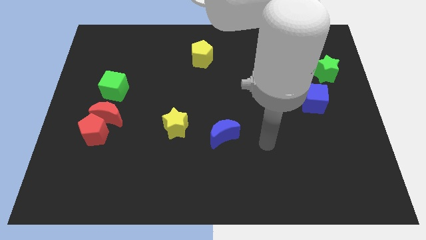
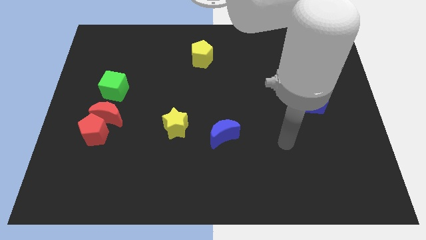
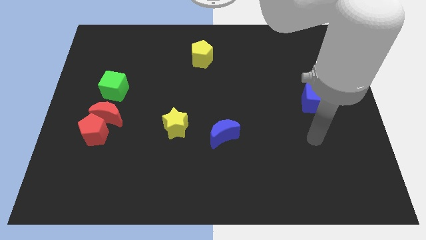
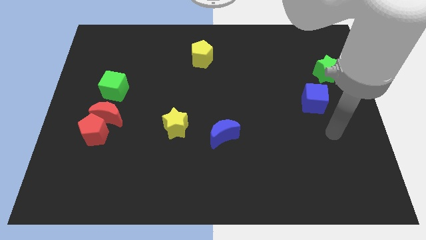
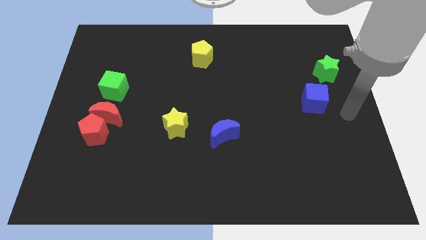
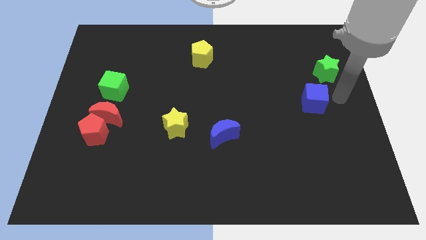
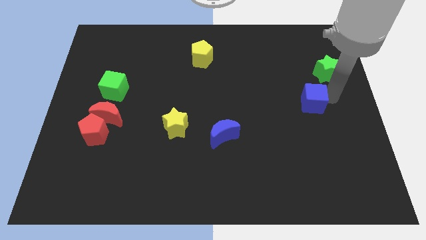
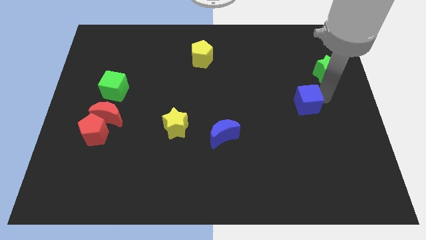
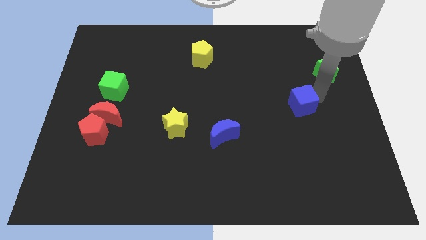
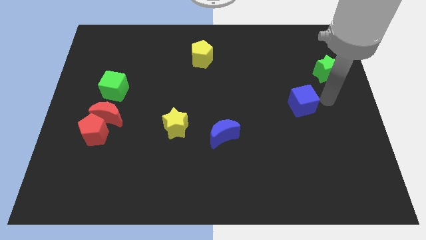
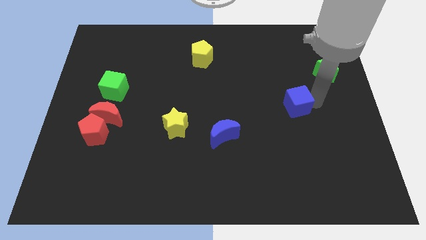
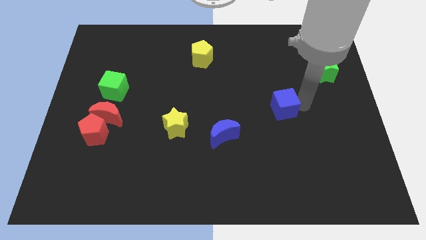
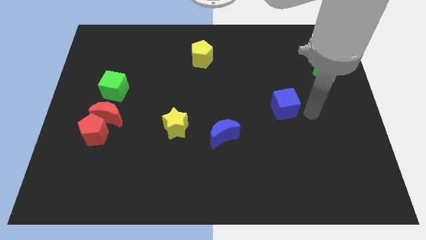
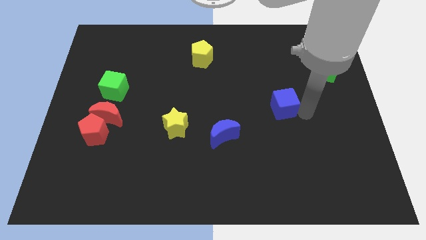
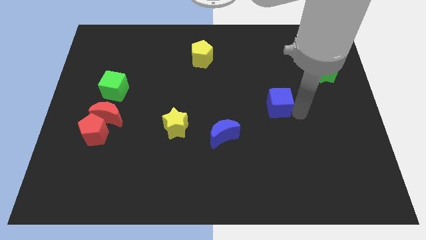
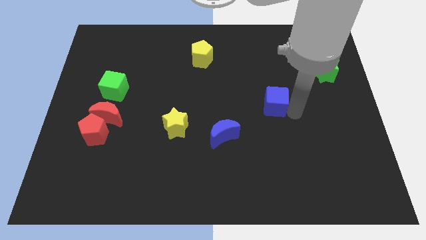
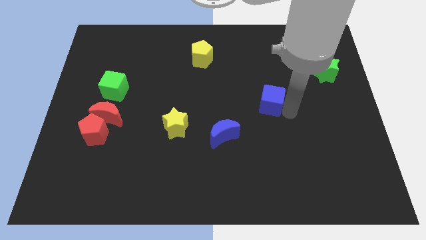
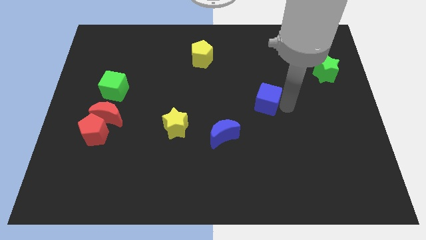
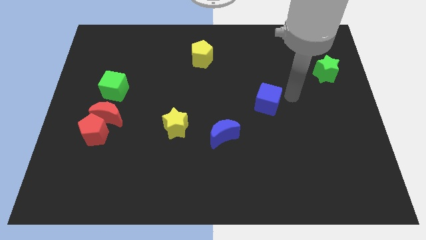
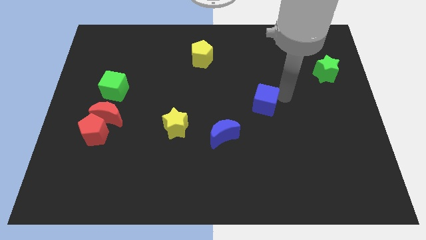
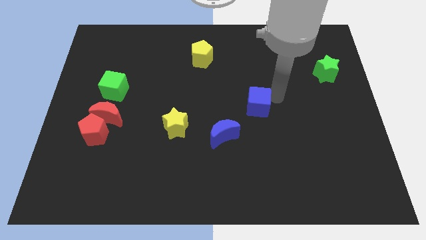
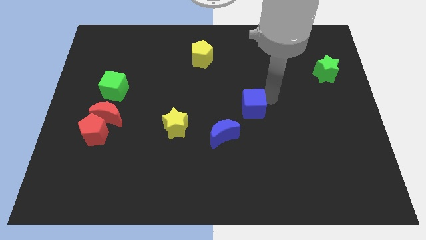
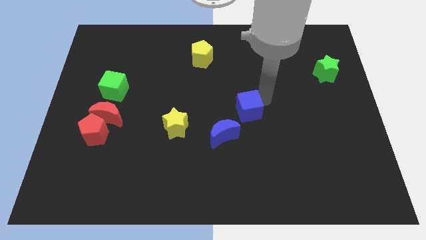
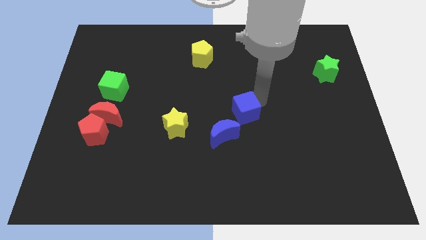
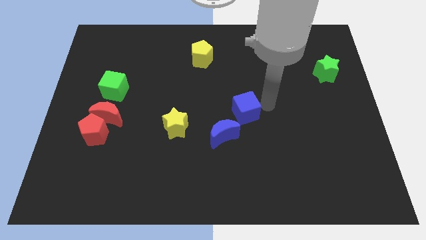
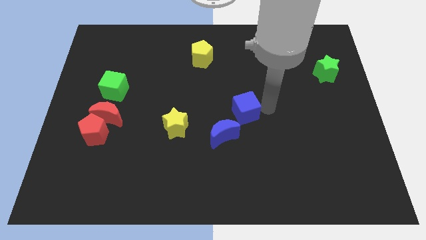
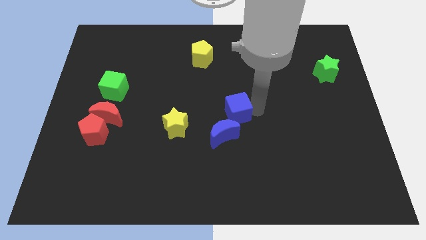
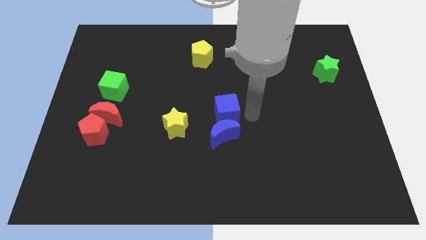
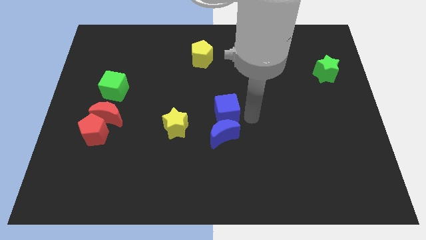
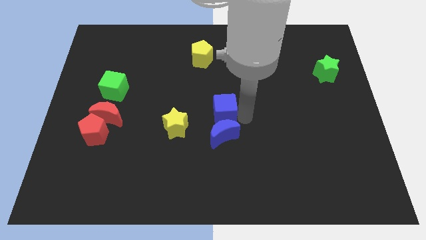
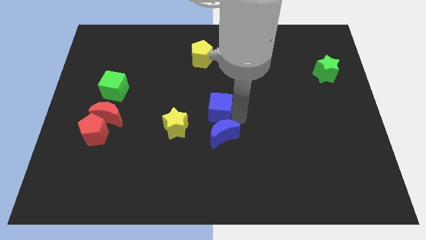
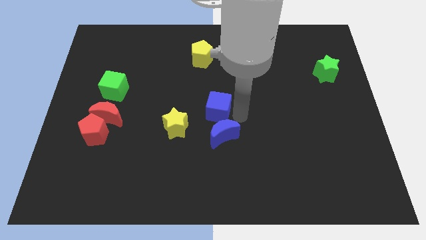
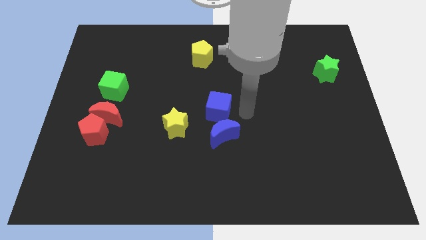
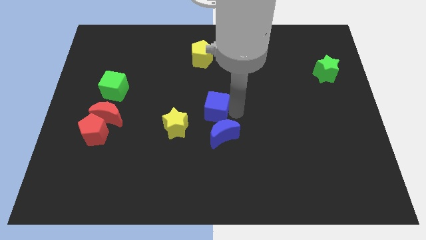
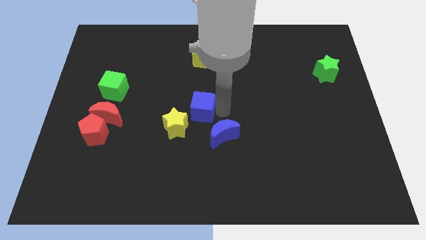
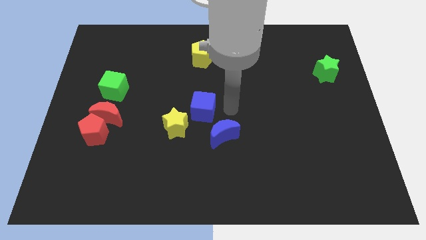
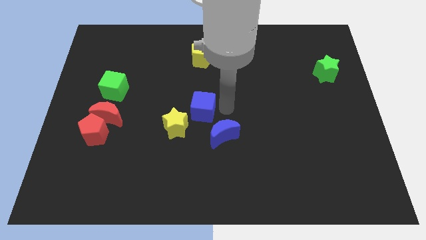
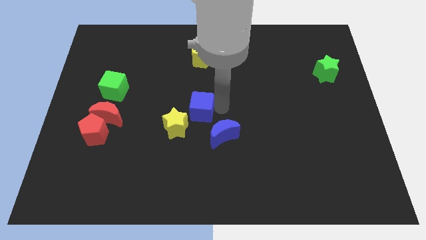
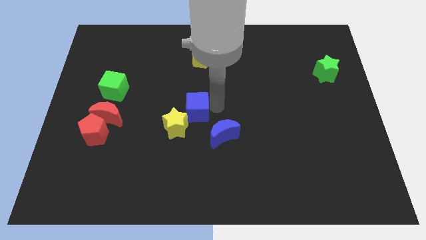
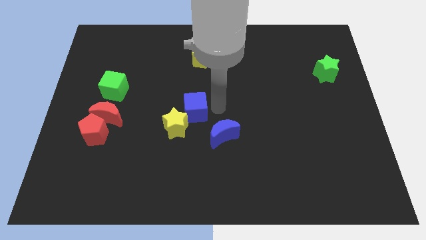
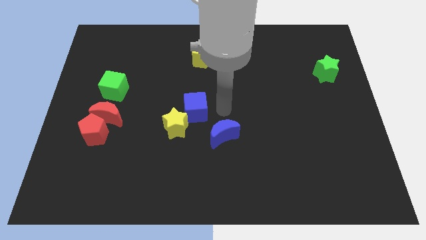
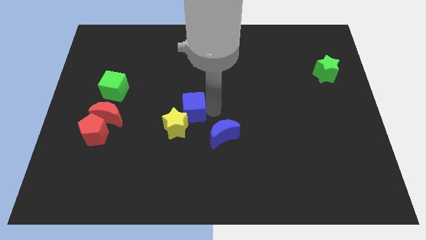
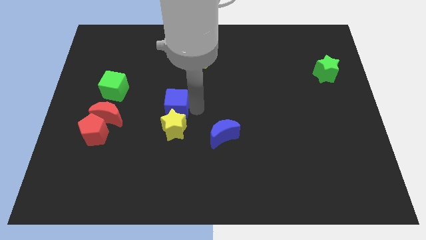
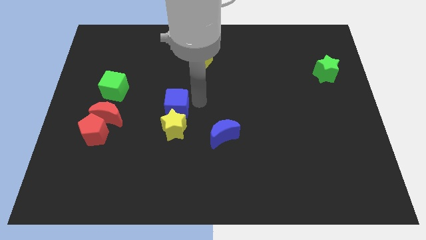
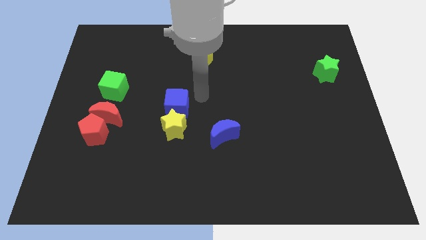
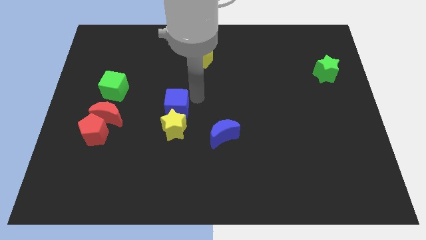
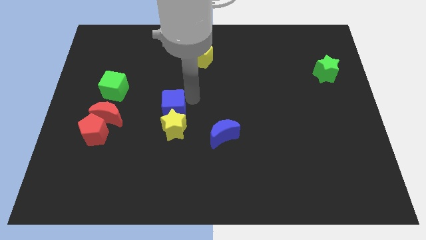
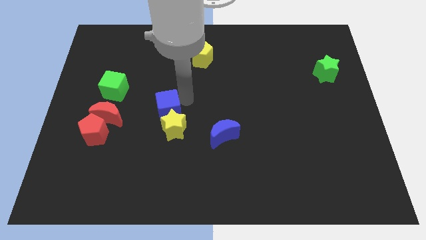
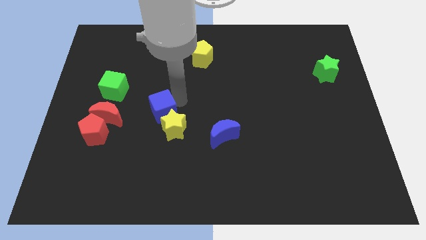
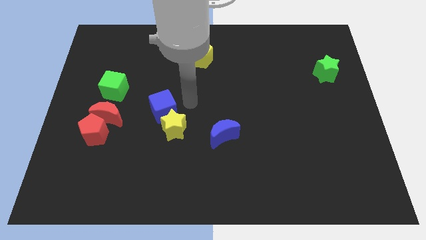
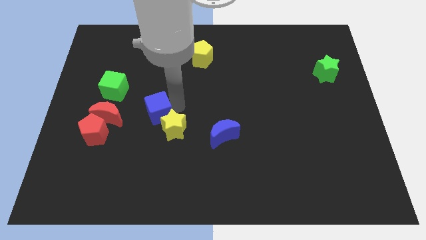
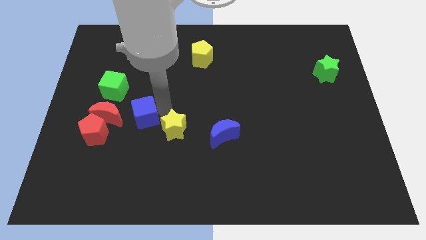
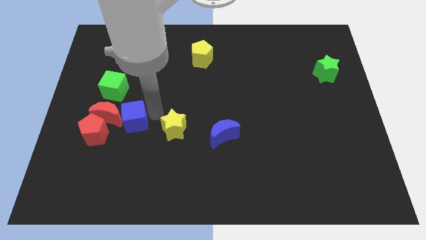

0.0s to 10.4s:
move the blue cube next to the red moon

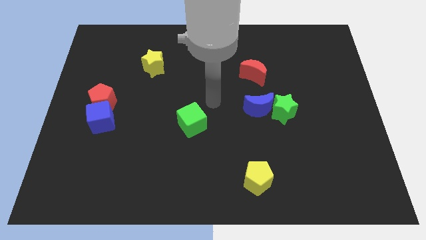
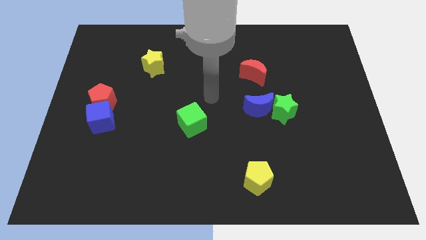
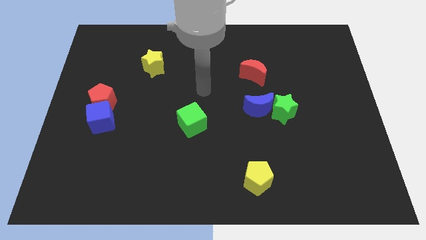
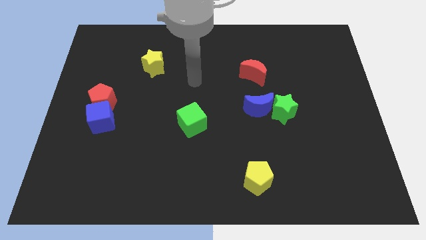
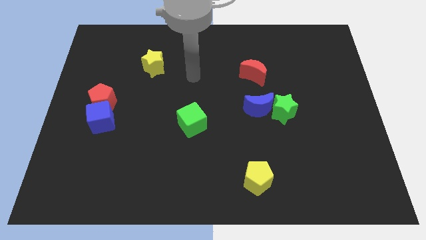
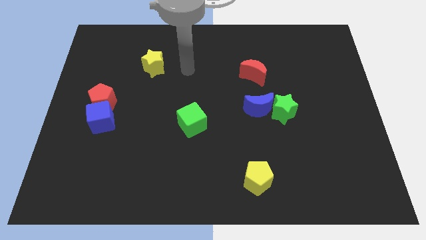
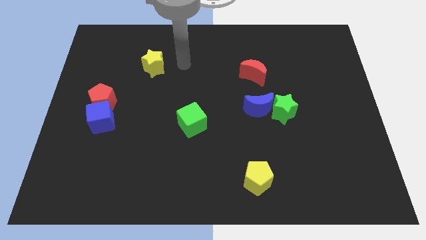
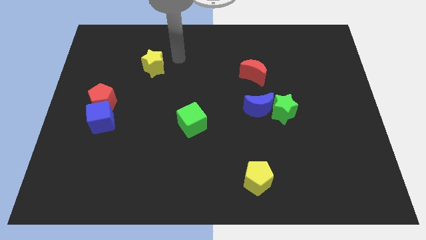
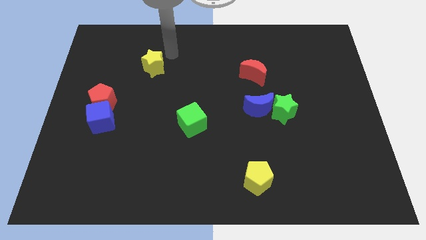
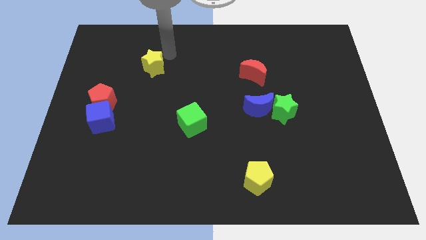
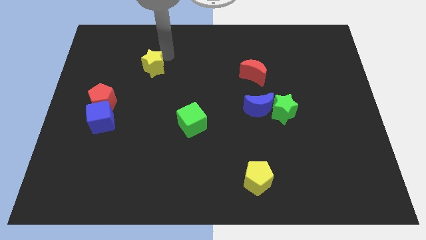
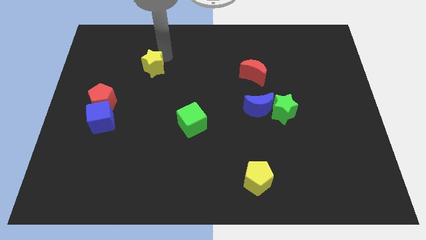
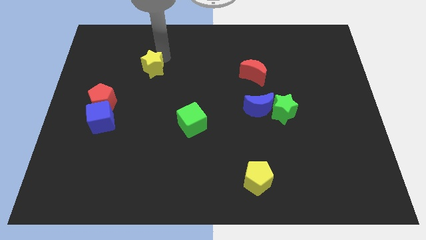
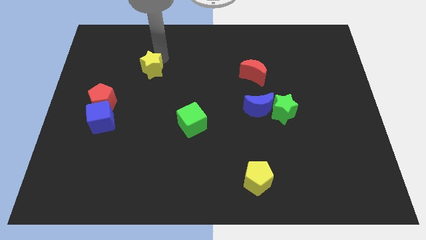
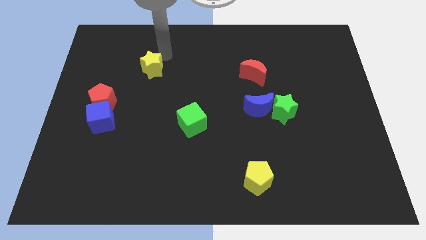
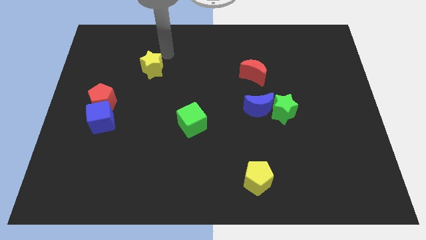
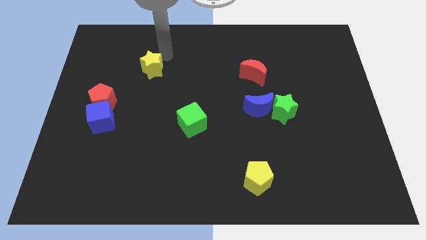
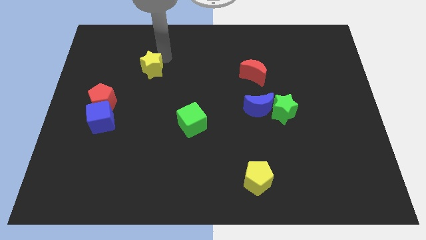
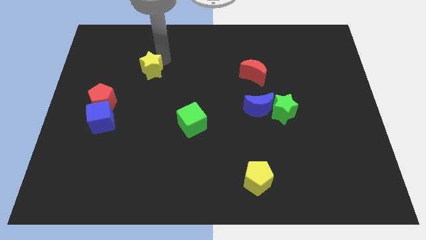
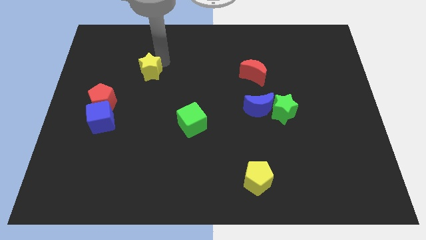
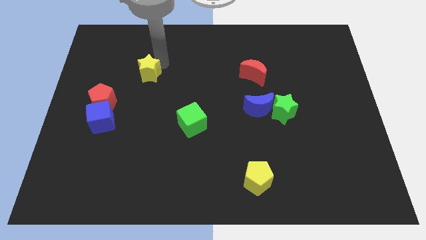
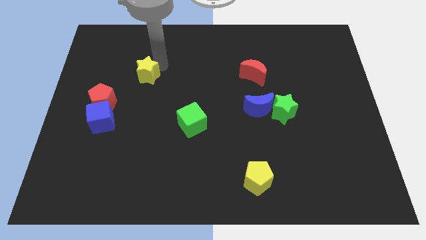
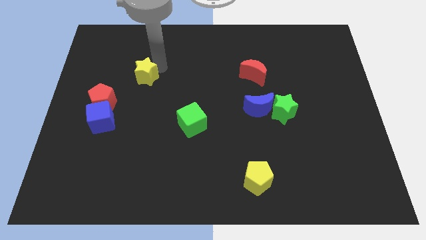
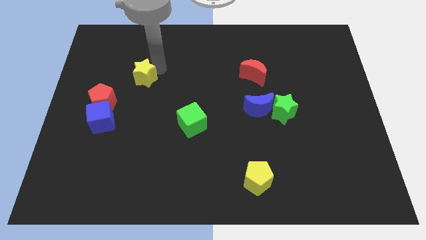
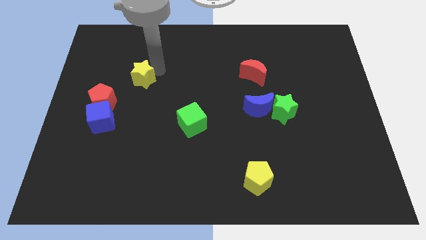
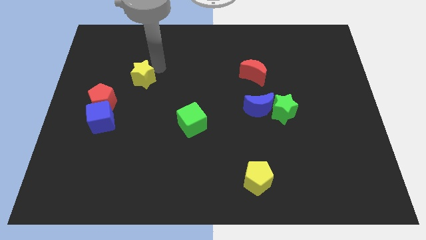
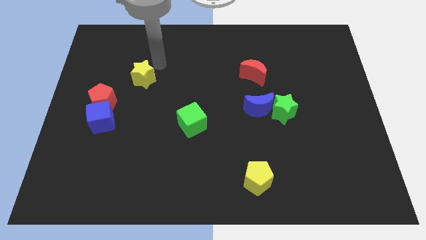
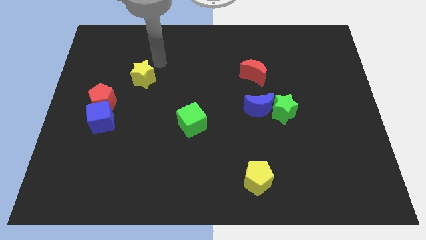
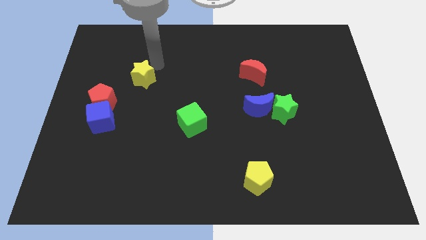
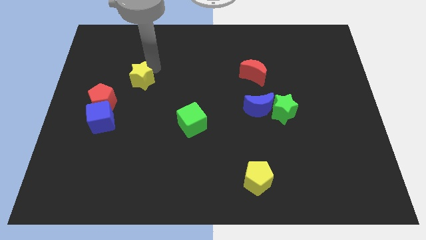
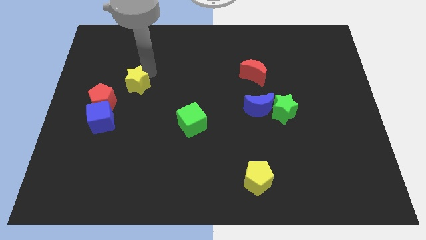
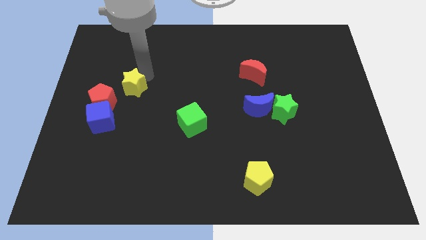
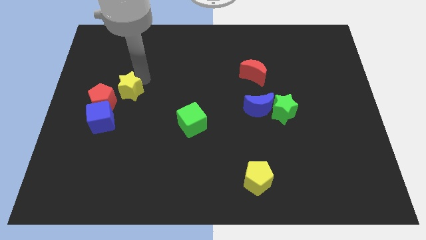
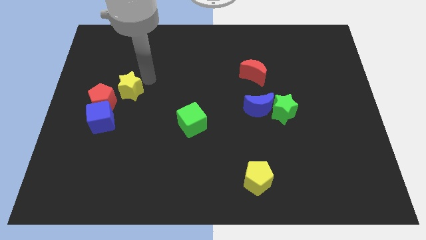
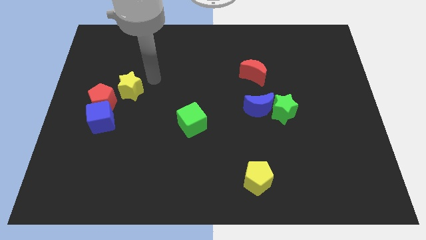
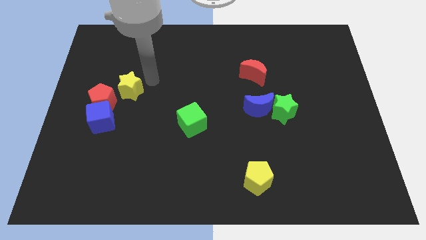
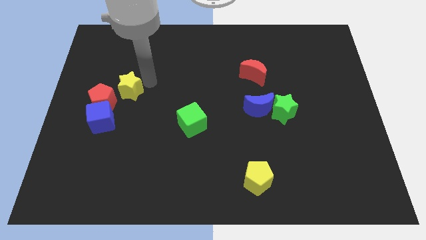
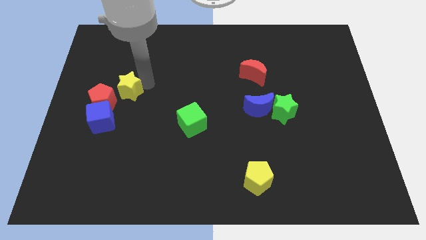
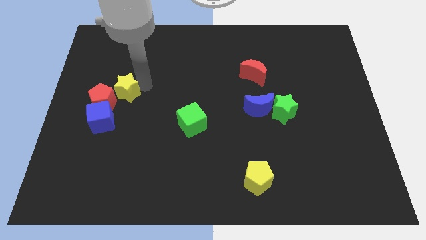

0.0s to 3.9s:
push the yellow star next to the red pentagon
